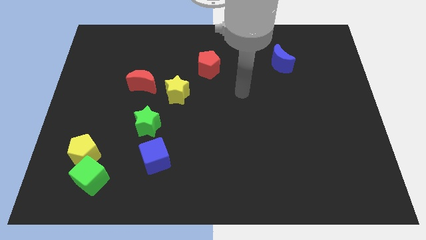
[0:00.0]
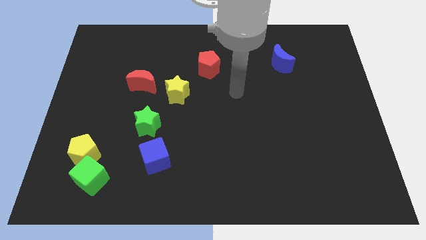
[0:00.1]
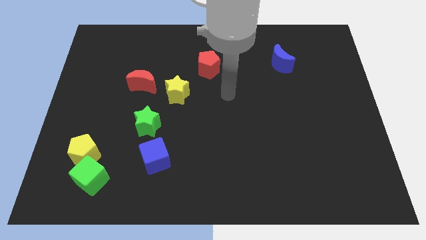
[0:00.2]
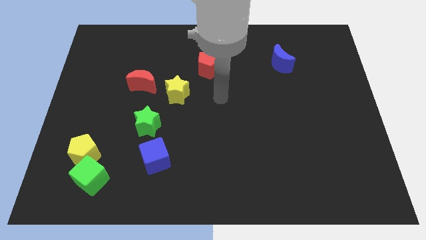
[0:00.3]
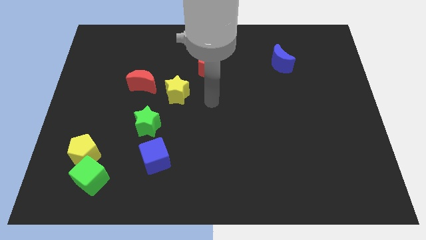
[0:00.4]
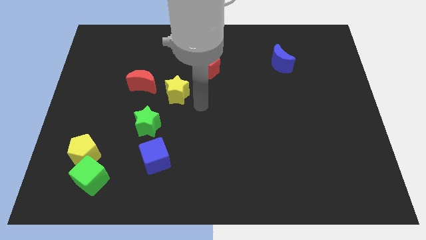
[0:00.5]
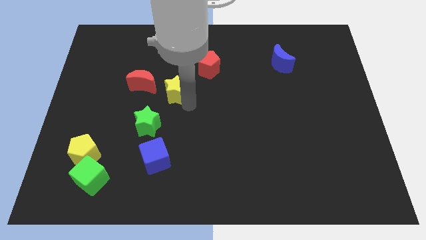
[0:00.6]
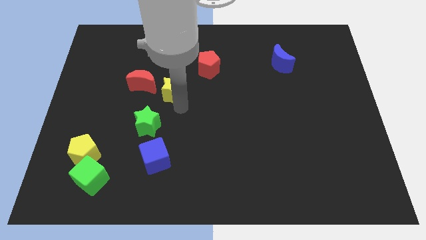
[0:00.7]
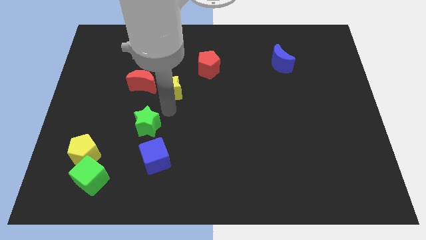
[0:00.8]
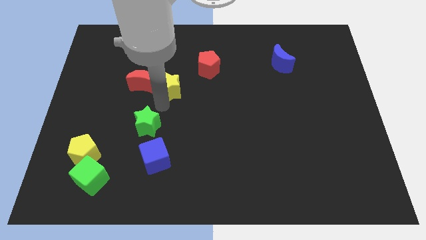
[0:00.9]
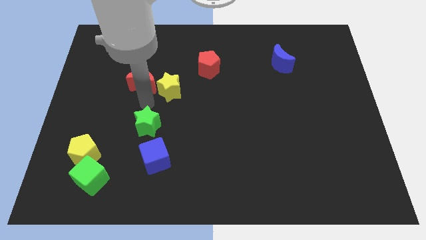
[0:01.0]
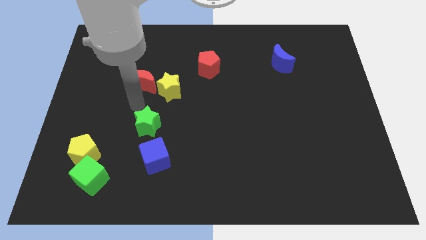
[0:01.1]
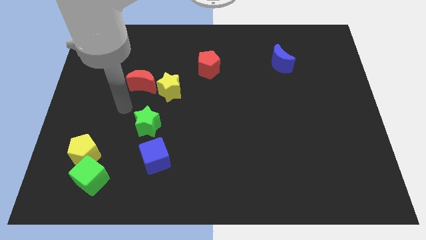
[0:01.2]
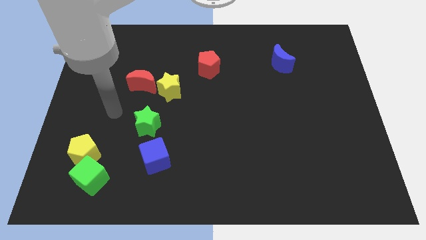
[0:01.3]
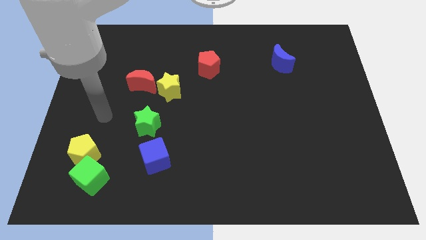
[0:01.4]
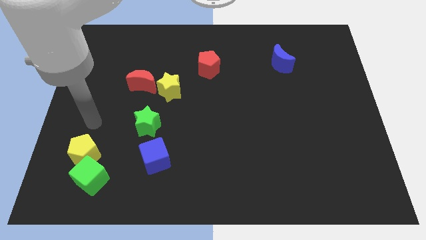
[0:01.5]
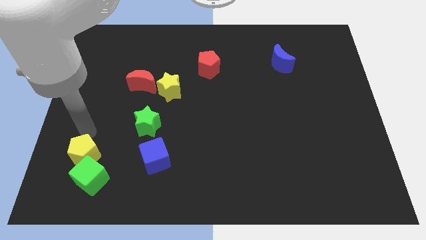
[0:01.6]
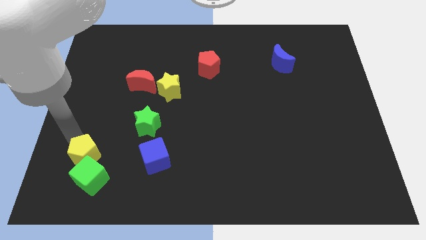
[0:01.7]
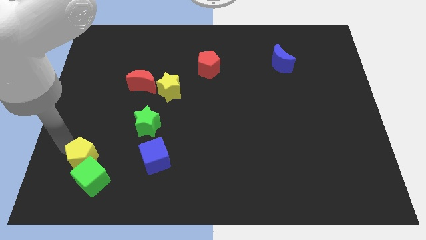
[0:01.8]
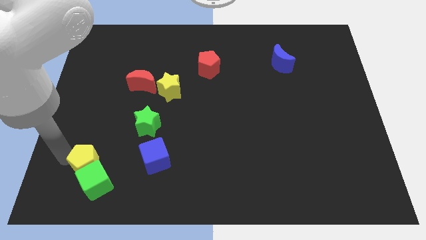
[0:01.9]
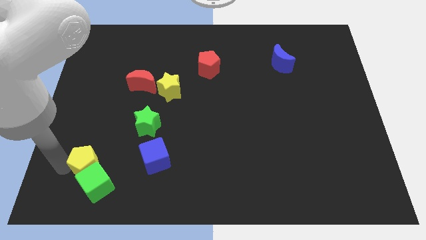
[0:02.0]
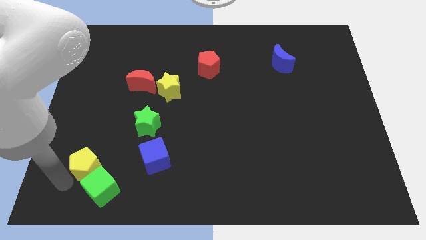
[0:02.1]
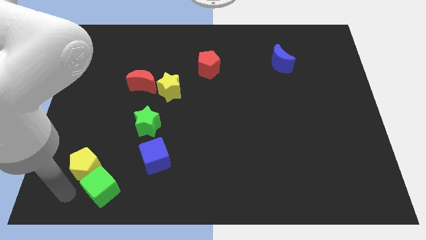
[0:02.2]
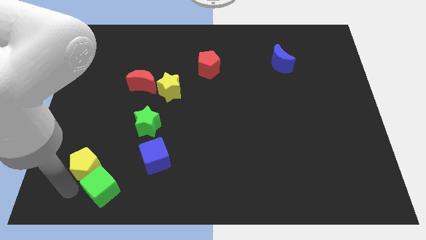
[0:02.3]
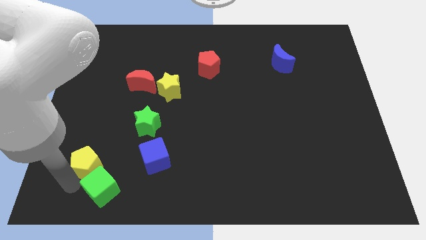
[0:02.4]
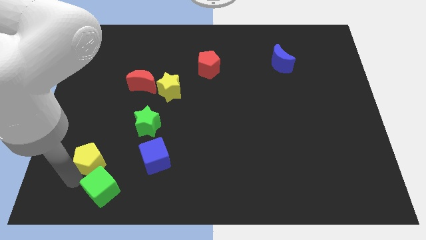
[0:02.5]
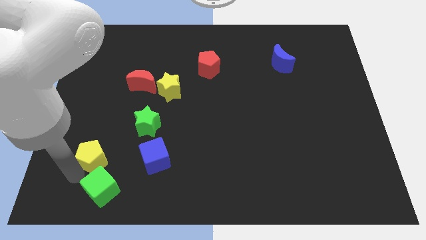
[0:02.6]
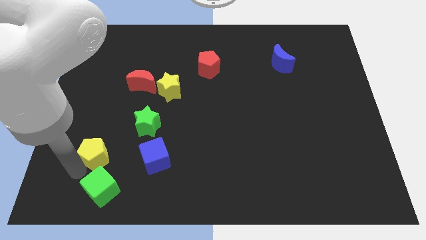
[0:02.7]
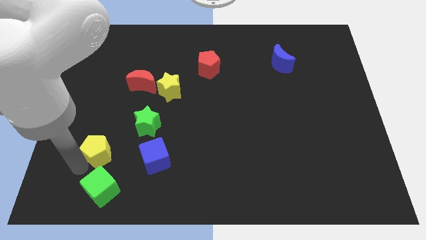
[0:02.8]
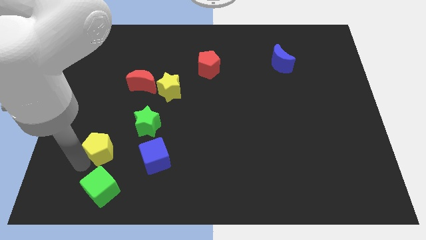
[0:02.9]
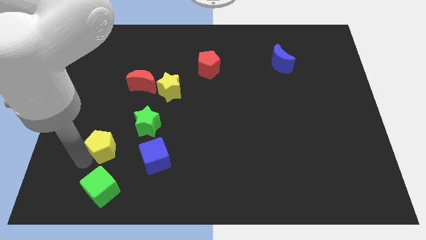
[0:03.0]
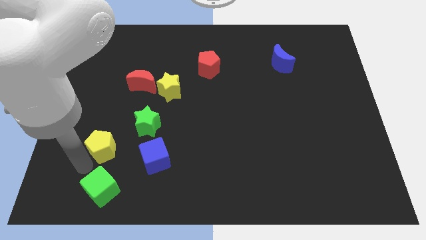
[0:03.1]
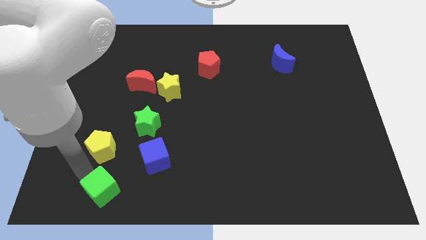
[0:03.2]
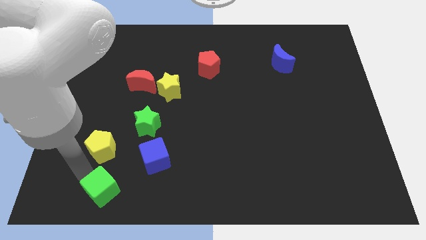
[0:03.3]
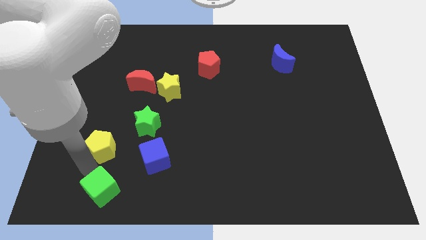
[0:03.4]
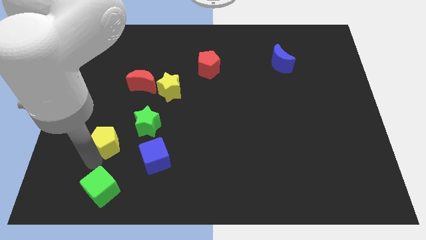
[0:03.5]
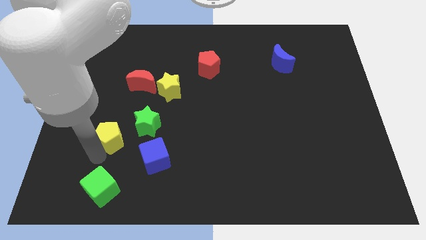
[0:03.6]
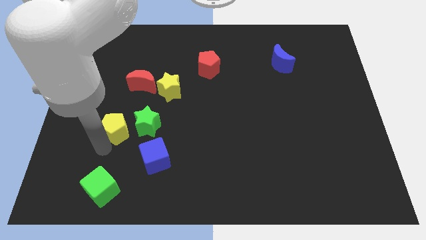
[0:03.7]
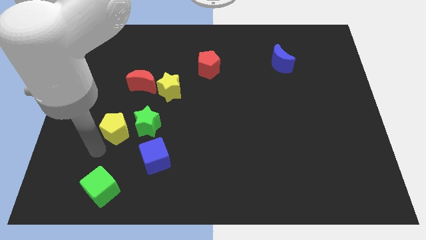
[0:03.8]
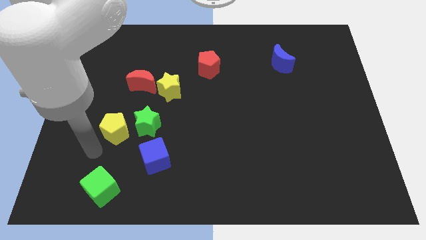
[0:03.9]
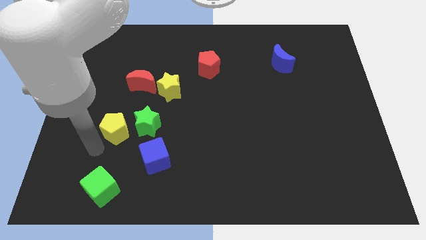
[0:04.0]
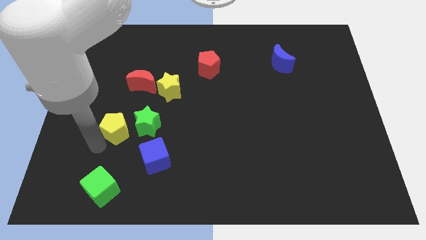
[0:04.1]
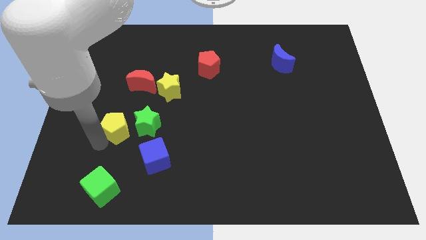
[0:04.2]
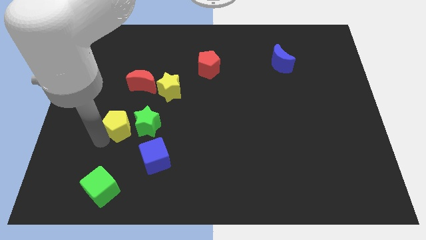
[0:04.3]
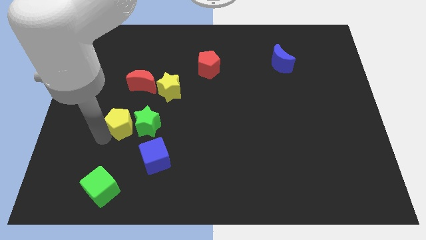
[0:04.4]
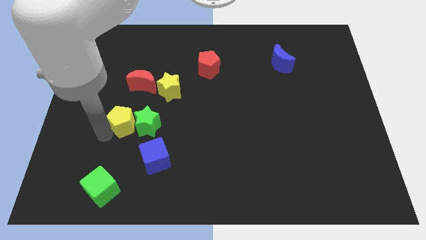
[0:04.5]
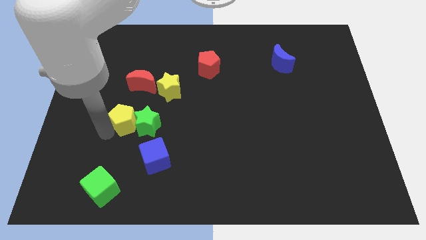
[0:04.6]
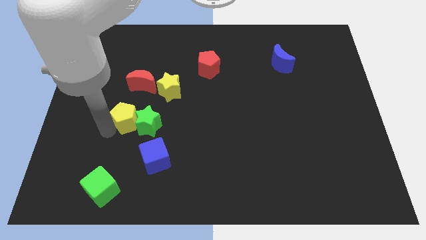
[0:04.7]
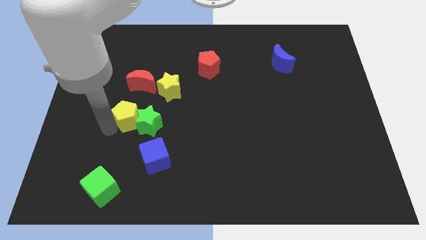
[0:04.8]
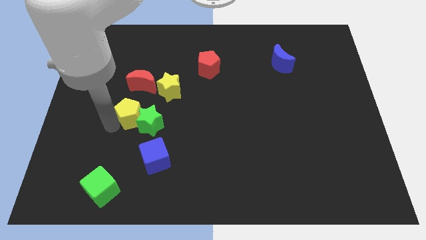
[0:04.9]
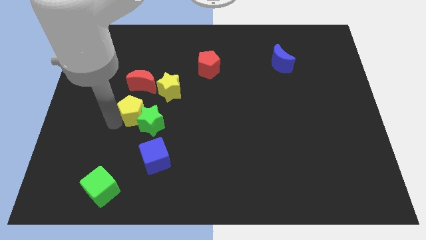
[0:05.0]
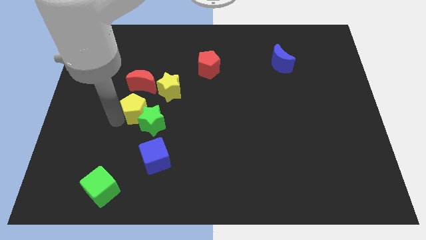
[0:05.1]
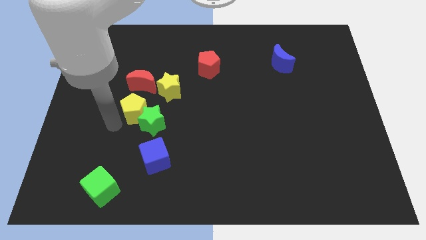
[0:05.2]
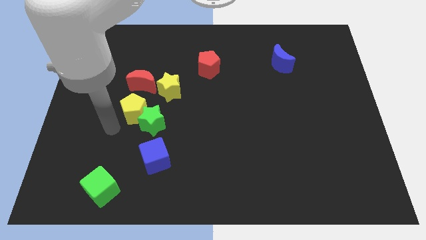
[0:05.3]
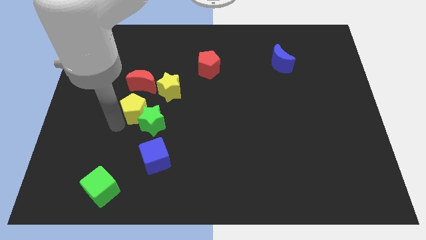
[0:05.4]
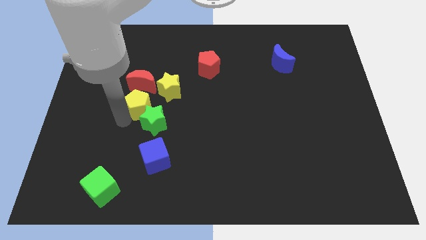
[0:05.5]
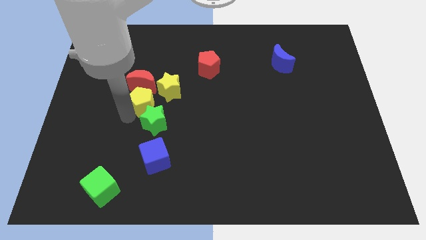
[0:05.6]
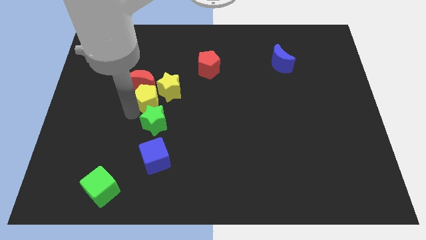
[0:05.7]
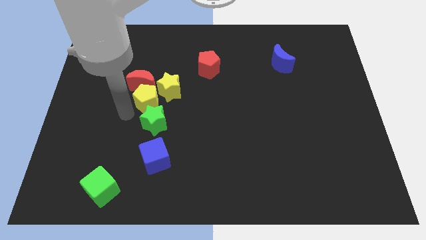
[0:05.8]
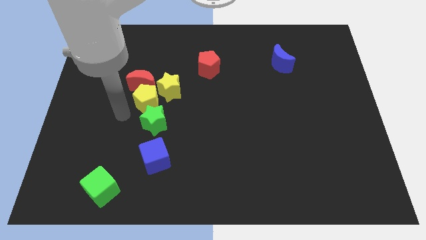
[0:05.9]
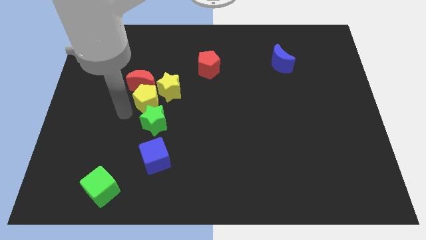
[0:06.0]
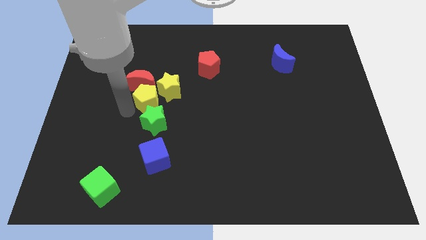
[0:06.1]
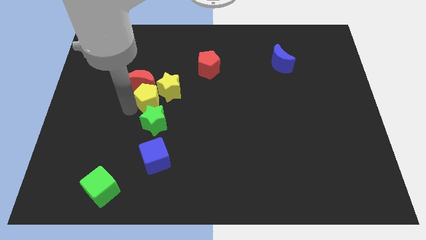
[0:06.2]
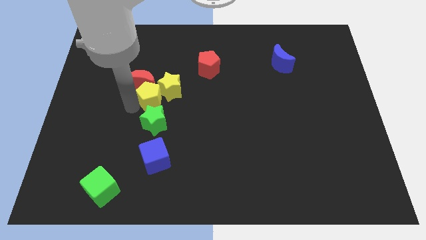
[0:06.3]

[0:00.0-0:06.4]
move the yellow pentagon towards the yellow star

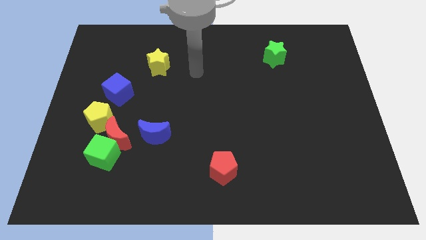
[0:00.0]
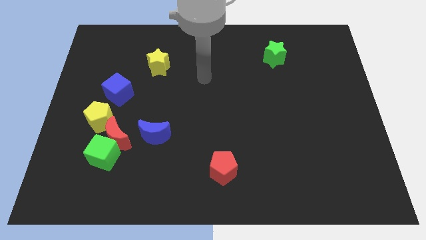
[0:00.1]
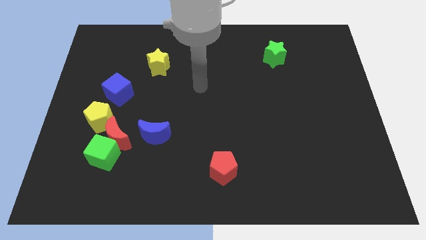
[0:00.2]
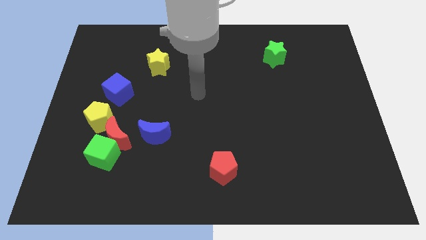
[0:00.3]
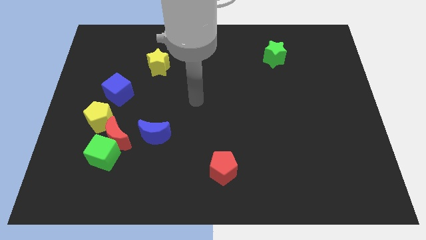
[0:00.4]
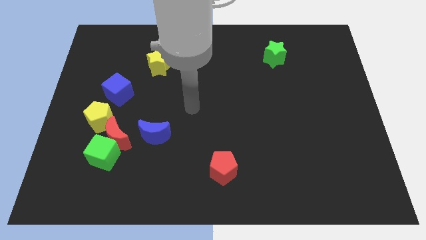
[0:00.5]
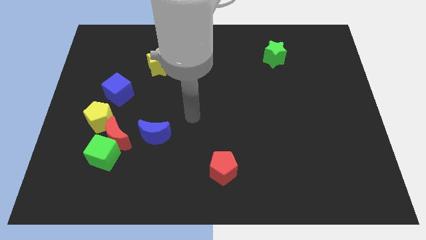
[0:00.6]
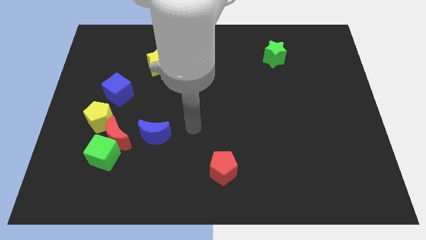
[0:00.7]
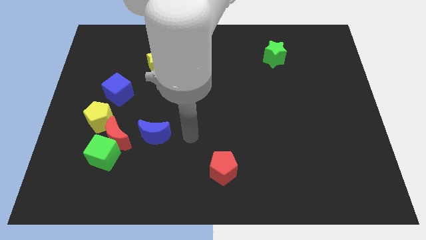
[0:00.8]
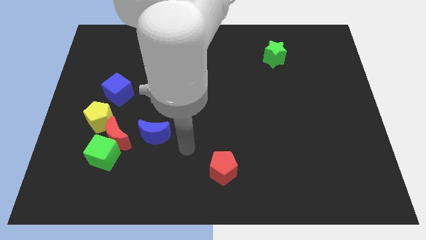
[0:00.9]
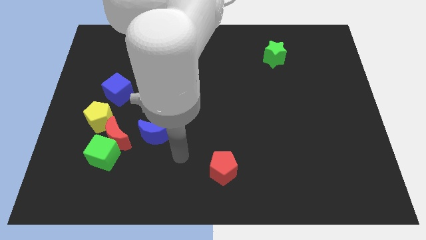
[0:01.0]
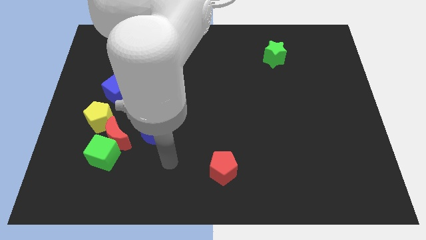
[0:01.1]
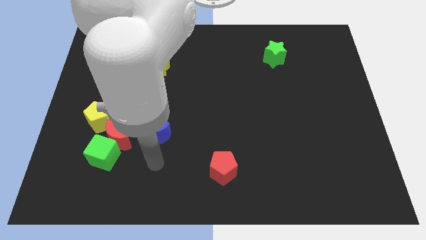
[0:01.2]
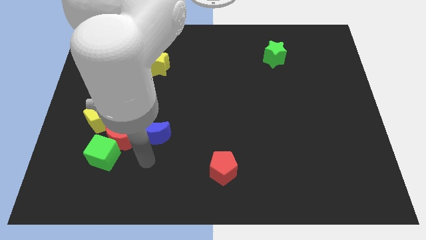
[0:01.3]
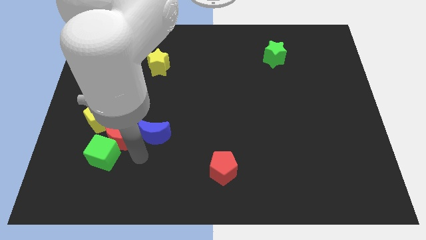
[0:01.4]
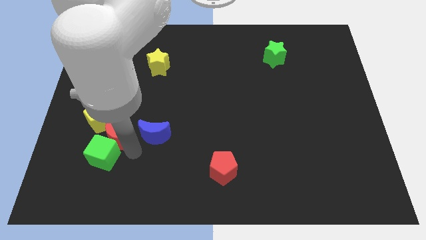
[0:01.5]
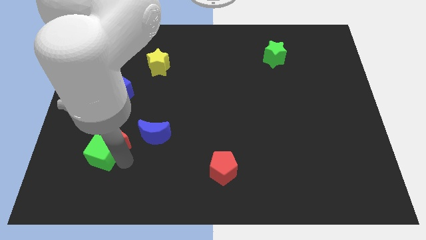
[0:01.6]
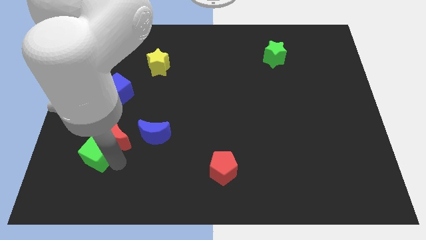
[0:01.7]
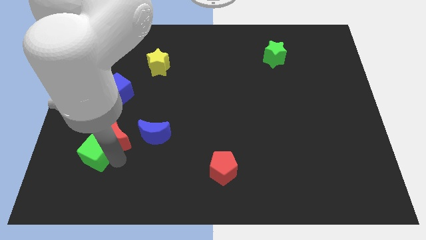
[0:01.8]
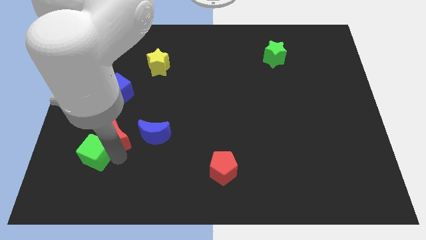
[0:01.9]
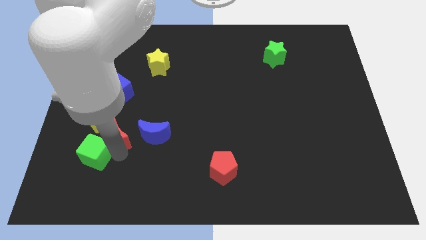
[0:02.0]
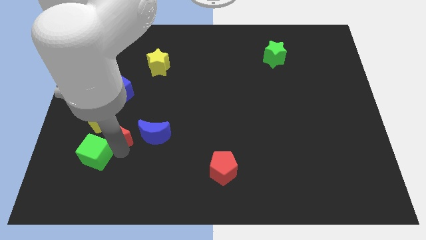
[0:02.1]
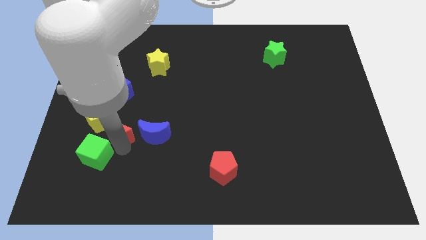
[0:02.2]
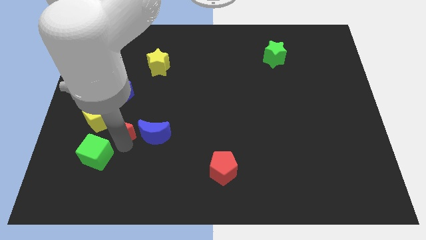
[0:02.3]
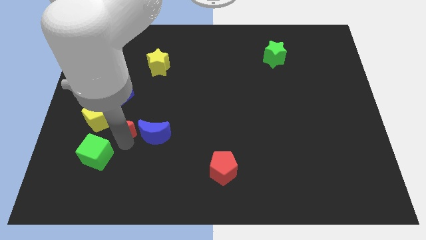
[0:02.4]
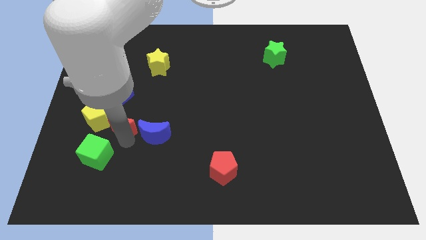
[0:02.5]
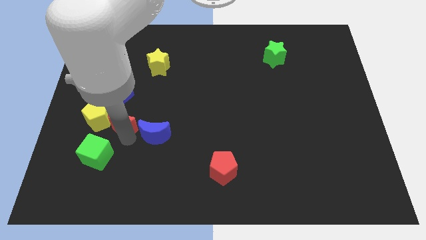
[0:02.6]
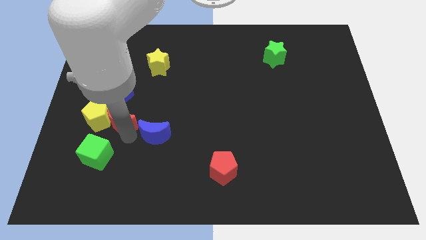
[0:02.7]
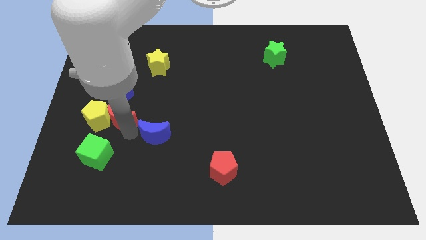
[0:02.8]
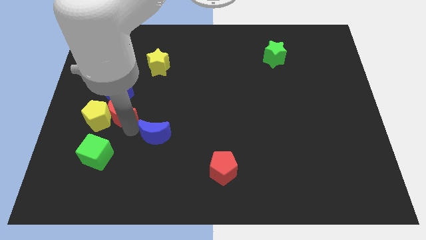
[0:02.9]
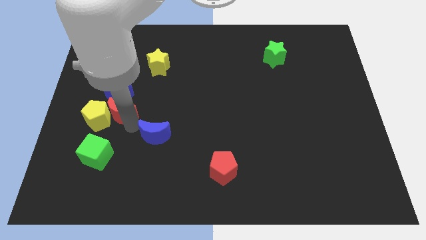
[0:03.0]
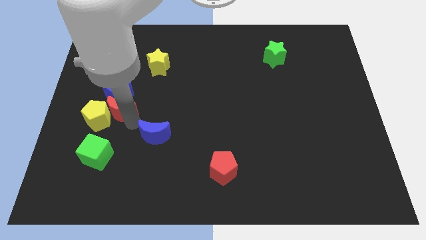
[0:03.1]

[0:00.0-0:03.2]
move the red moon next to the blue cube
